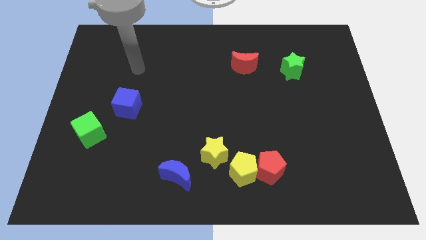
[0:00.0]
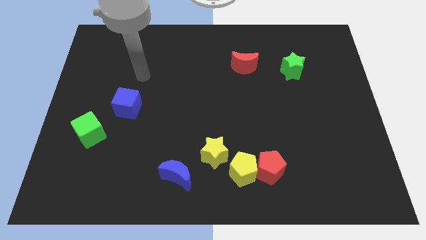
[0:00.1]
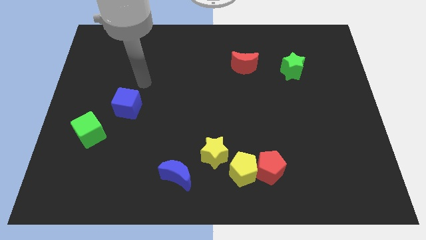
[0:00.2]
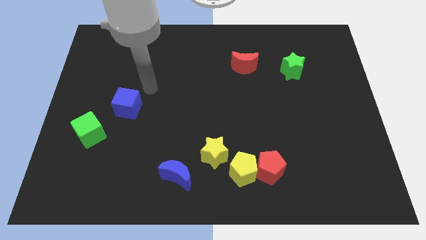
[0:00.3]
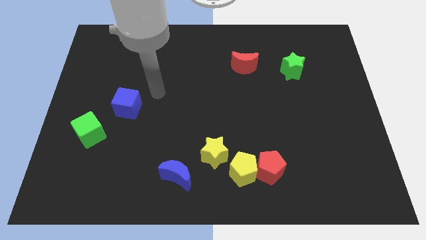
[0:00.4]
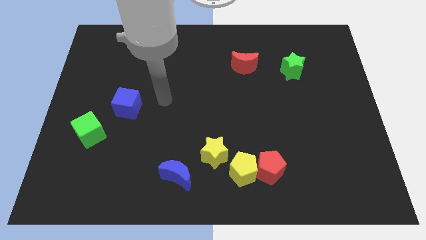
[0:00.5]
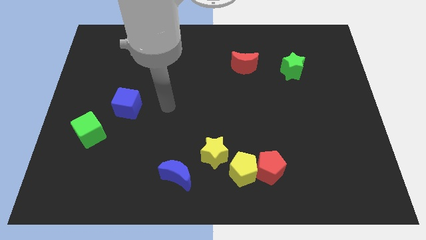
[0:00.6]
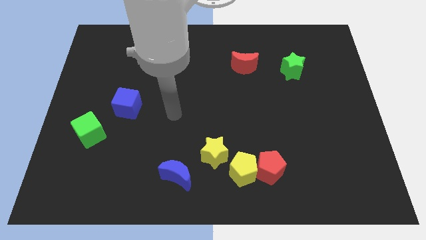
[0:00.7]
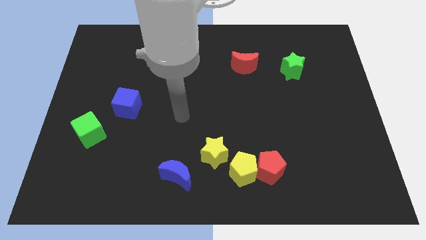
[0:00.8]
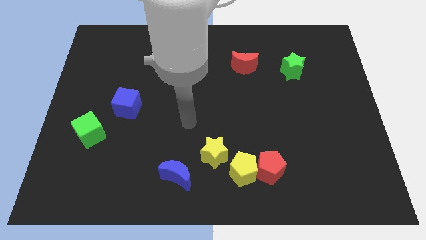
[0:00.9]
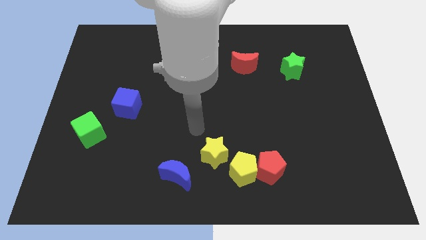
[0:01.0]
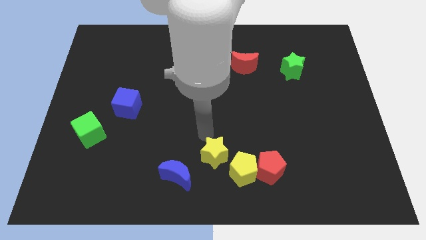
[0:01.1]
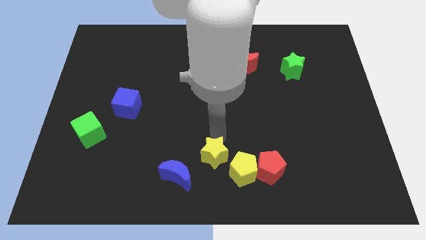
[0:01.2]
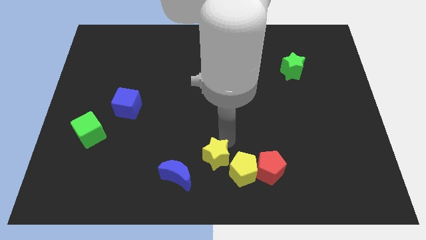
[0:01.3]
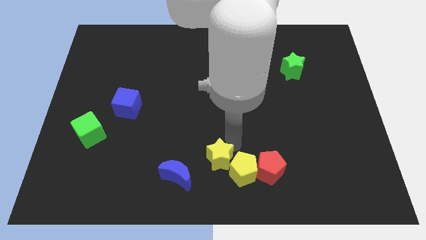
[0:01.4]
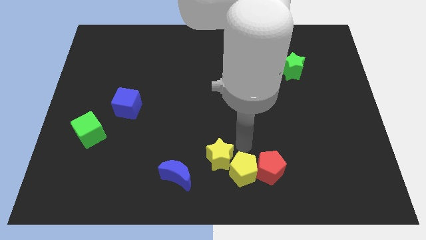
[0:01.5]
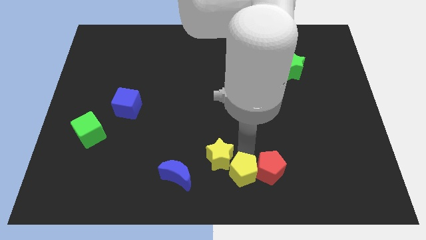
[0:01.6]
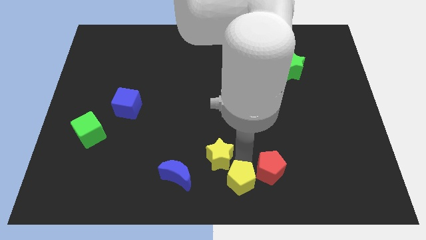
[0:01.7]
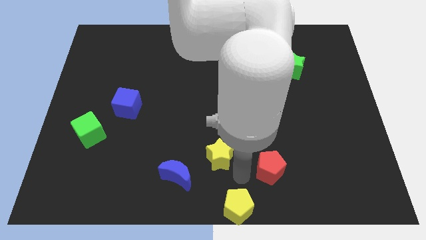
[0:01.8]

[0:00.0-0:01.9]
separate the red pentagon from the yellow pentagon

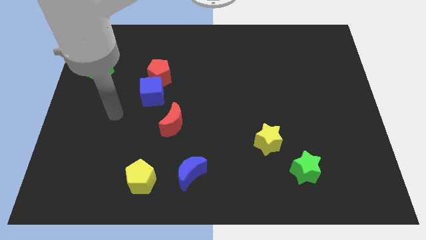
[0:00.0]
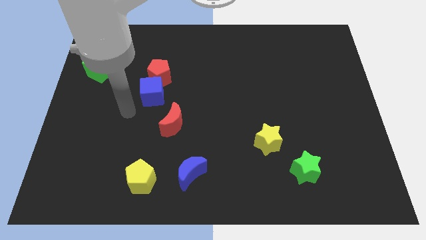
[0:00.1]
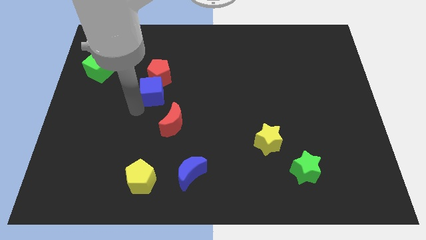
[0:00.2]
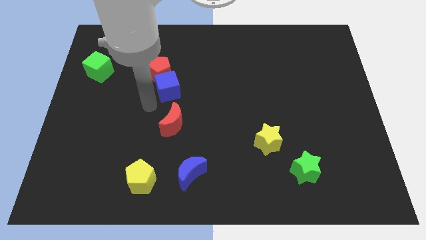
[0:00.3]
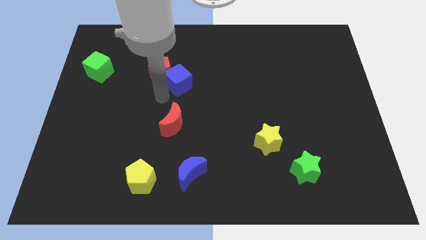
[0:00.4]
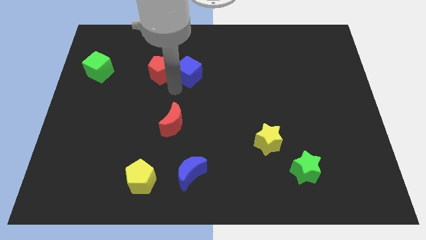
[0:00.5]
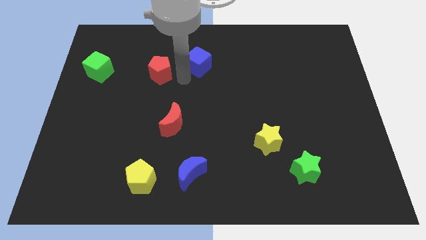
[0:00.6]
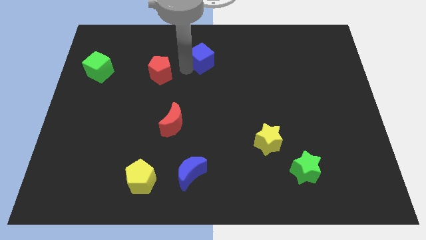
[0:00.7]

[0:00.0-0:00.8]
separate the red pentagon from the blue cube

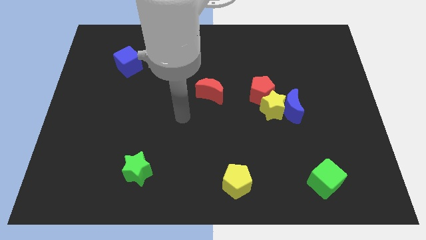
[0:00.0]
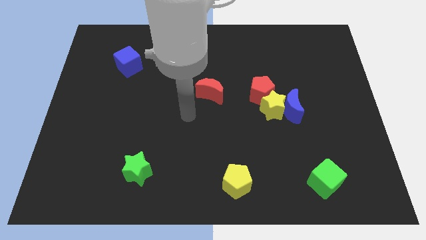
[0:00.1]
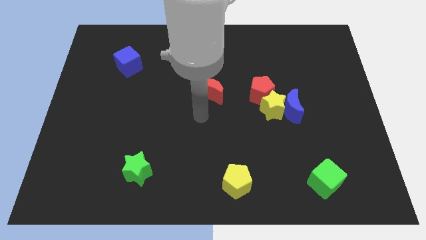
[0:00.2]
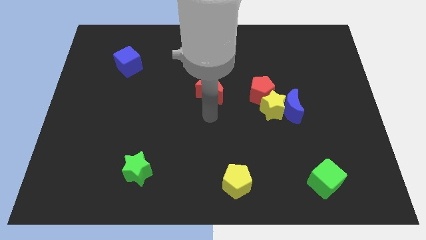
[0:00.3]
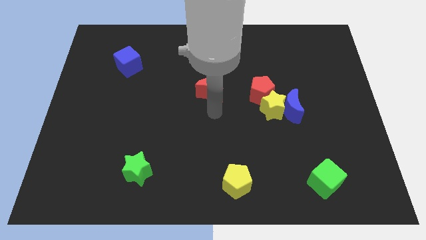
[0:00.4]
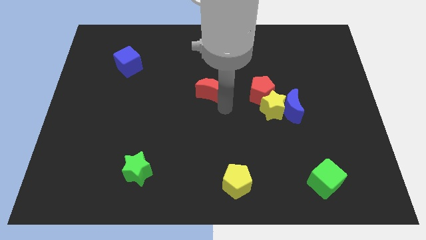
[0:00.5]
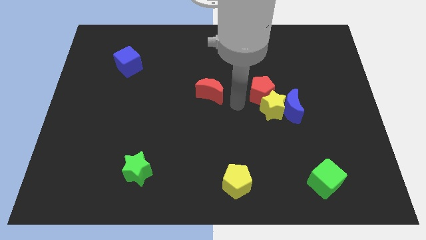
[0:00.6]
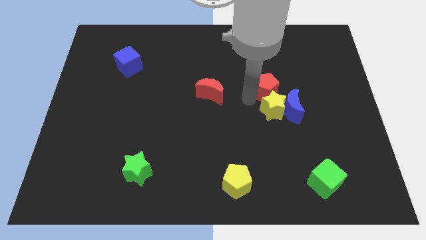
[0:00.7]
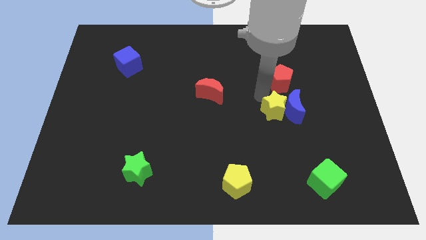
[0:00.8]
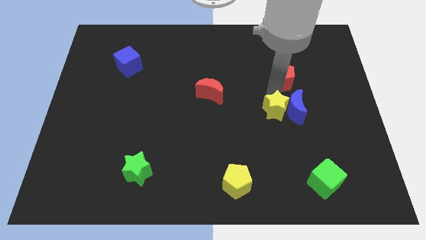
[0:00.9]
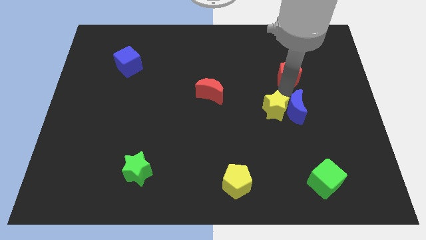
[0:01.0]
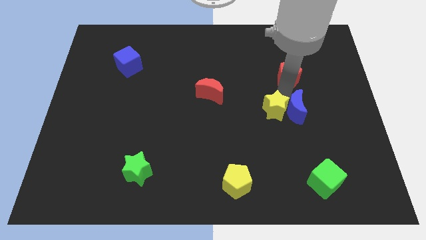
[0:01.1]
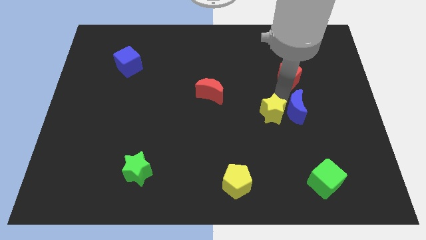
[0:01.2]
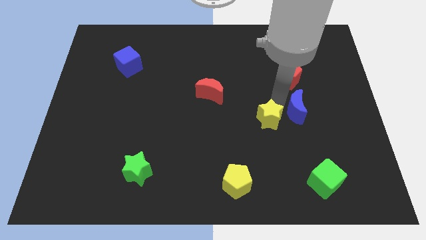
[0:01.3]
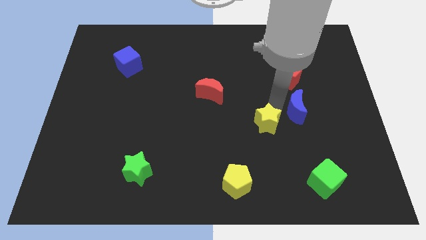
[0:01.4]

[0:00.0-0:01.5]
move the yellow star away from the blue moon and red pentagon

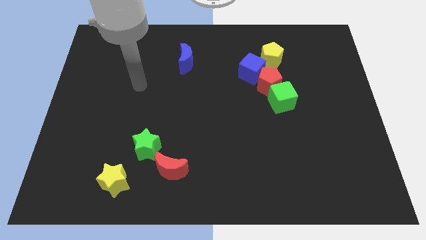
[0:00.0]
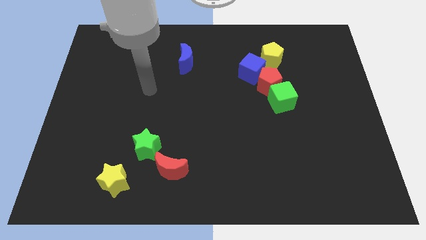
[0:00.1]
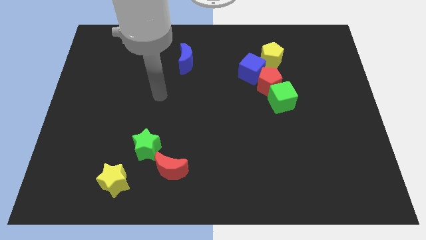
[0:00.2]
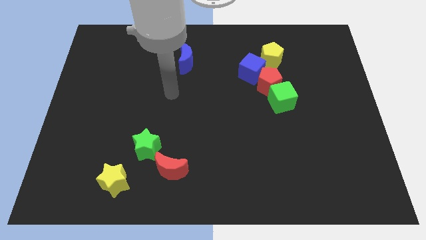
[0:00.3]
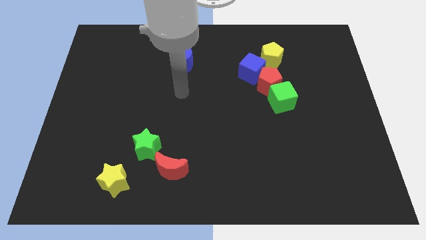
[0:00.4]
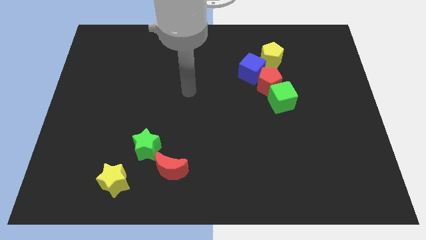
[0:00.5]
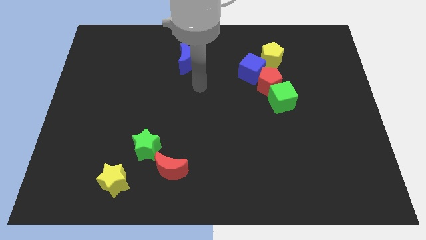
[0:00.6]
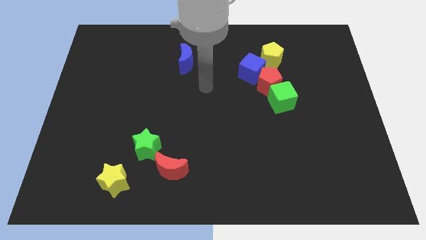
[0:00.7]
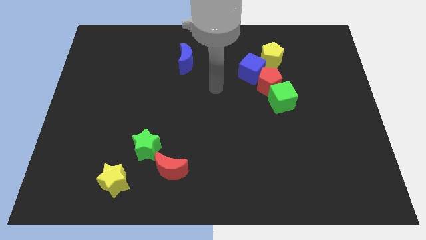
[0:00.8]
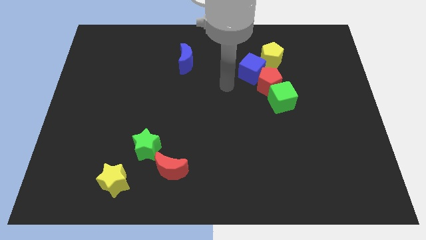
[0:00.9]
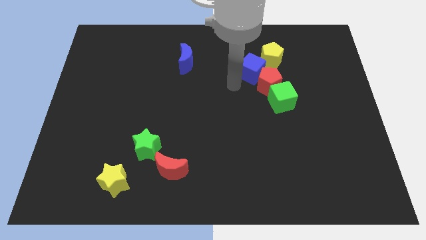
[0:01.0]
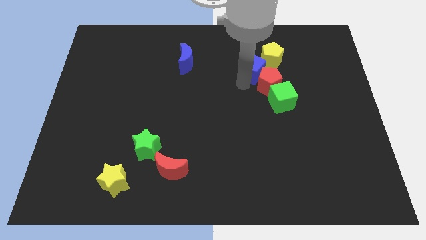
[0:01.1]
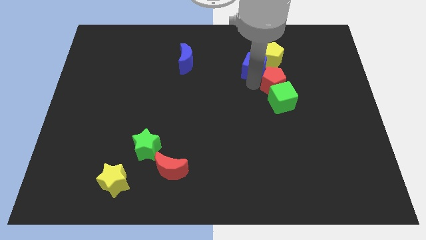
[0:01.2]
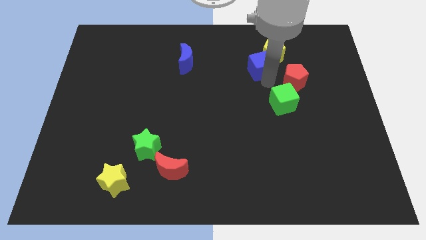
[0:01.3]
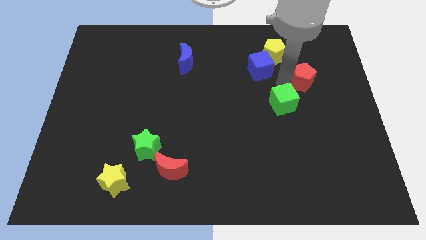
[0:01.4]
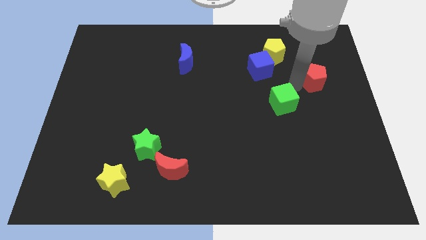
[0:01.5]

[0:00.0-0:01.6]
move the green cube away from the red pentagon

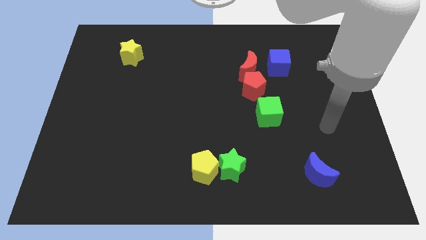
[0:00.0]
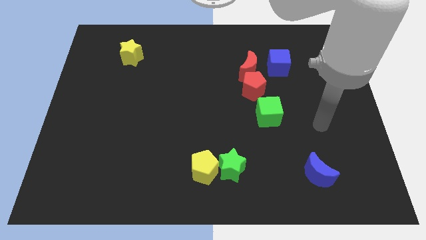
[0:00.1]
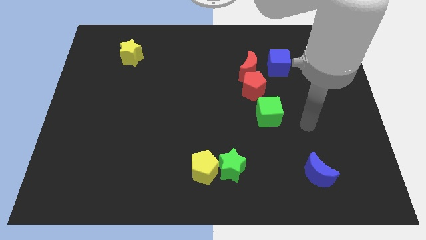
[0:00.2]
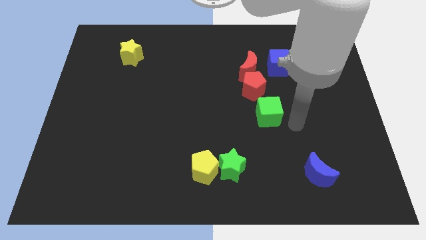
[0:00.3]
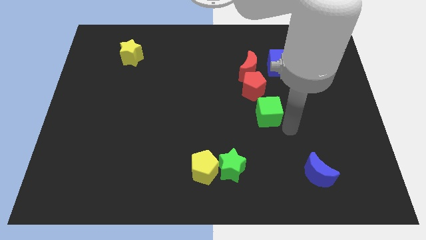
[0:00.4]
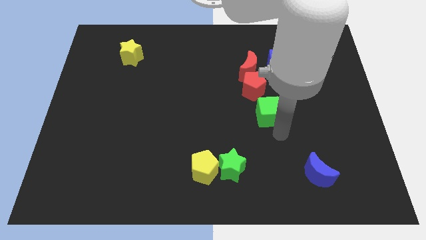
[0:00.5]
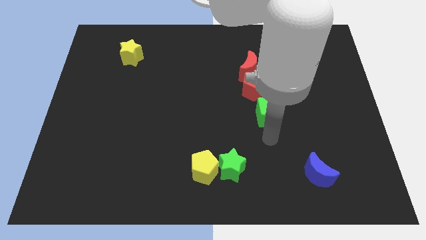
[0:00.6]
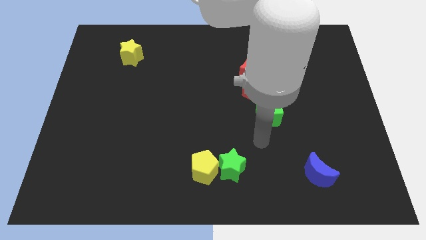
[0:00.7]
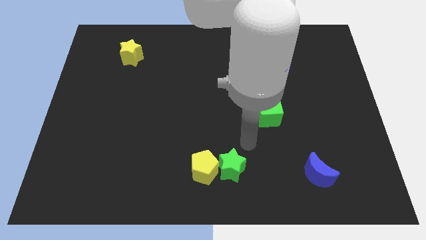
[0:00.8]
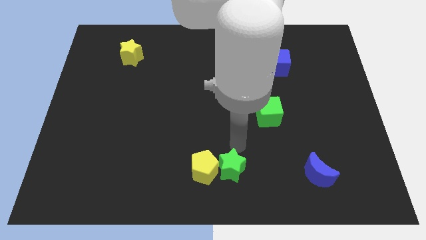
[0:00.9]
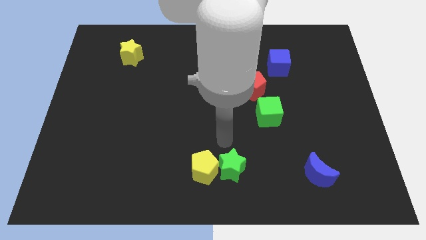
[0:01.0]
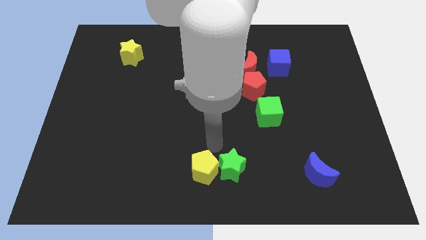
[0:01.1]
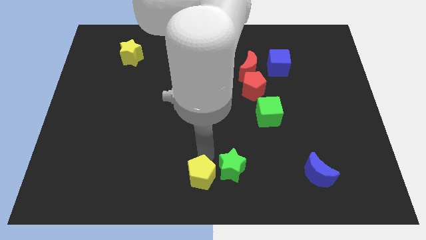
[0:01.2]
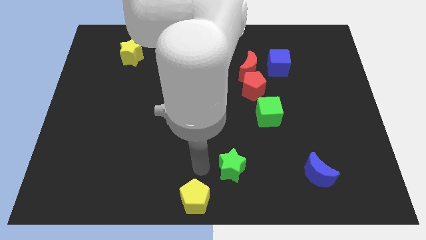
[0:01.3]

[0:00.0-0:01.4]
separate the green star from the yellow pentagon

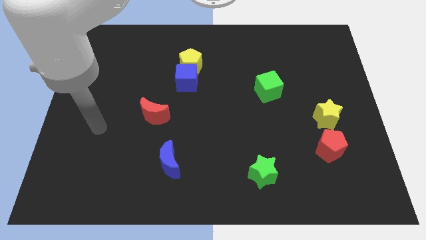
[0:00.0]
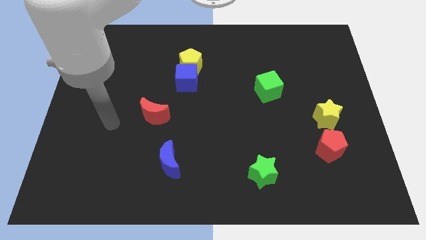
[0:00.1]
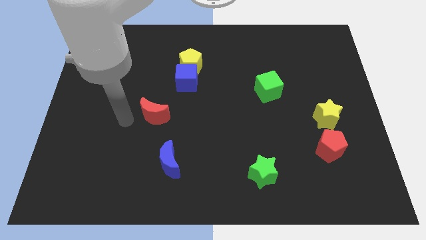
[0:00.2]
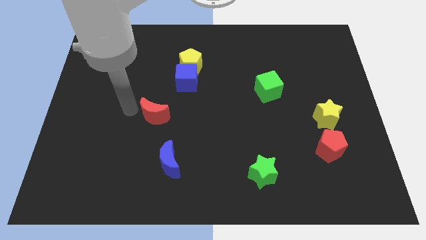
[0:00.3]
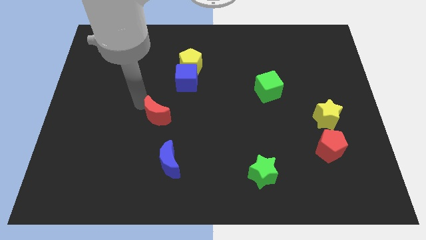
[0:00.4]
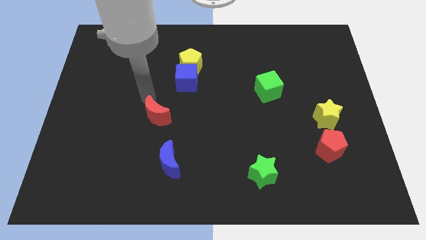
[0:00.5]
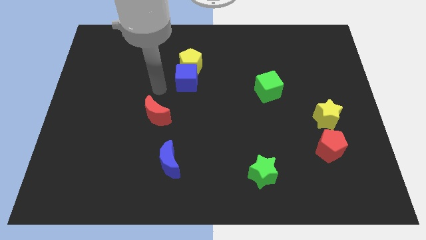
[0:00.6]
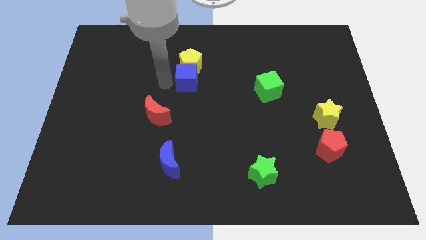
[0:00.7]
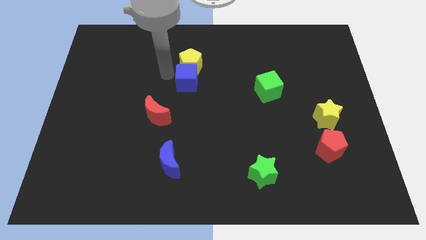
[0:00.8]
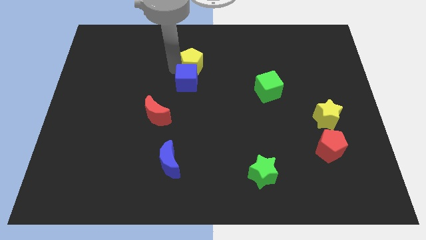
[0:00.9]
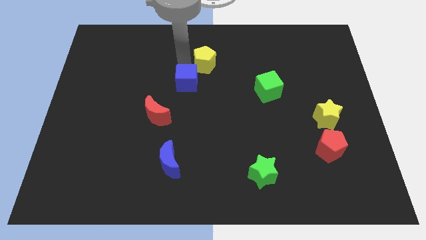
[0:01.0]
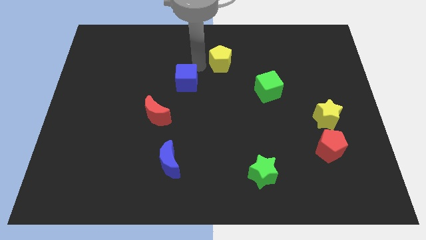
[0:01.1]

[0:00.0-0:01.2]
move the blue cube away from the yellow pentagon

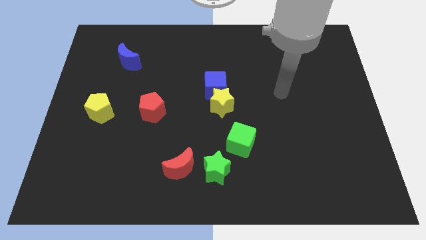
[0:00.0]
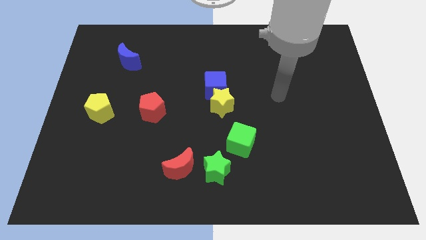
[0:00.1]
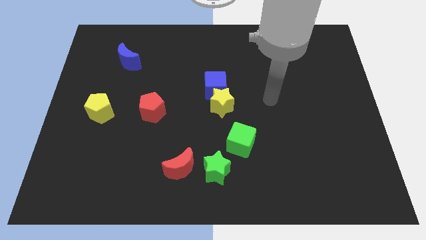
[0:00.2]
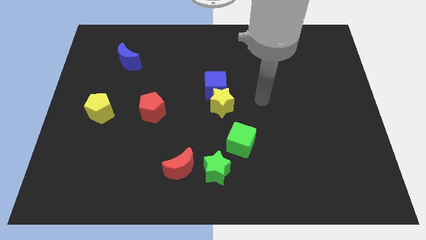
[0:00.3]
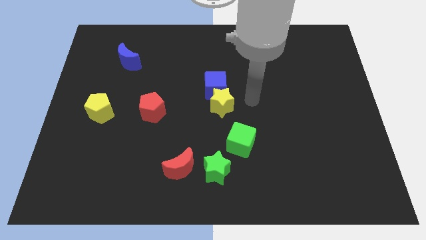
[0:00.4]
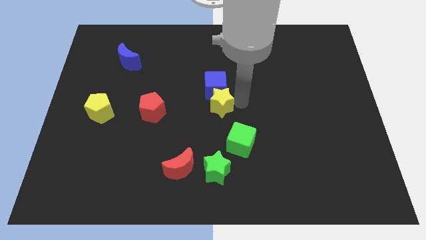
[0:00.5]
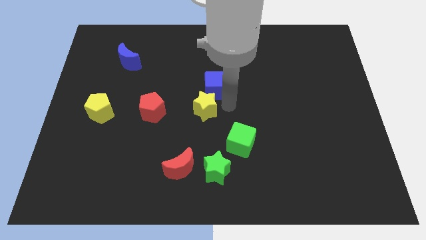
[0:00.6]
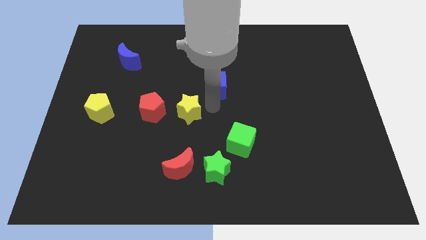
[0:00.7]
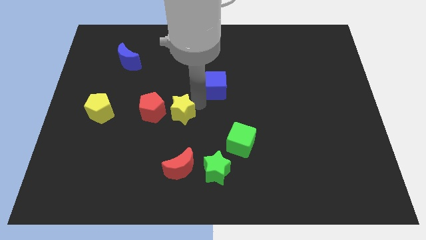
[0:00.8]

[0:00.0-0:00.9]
separate the blue cube from the yellow star
